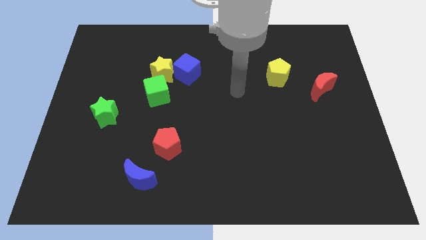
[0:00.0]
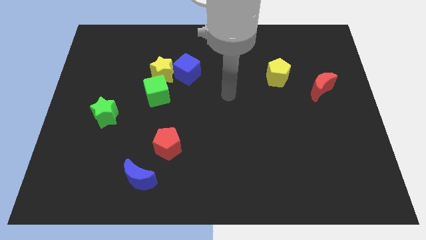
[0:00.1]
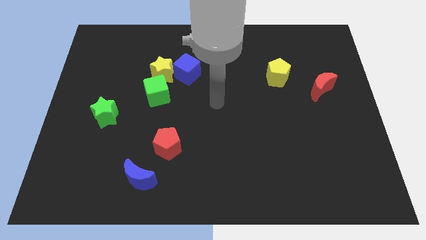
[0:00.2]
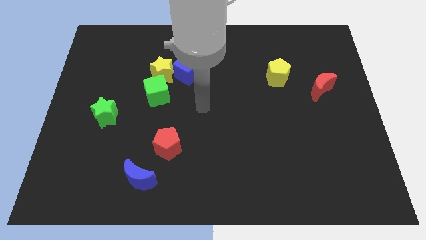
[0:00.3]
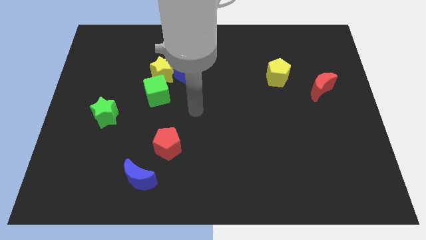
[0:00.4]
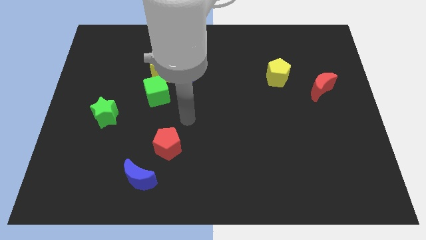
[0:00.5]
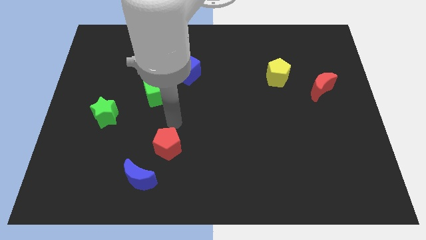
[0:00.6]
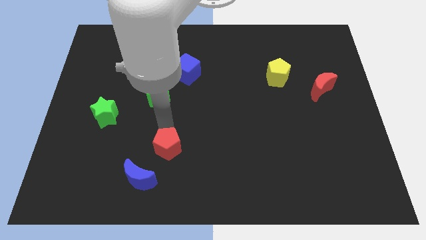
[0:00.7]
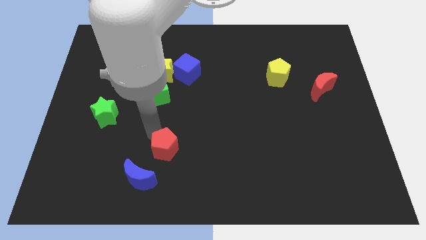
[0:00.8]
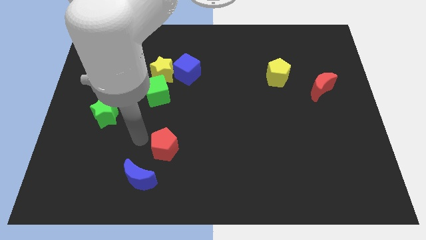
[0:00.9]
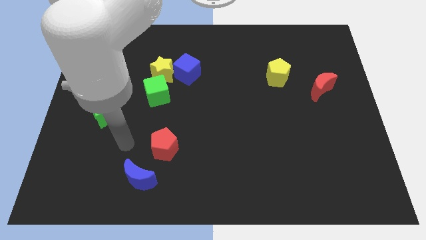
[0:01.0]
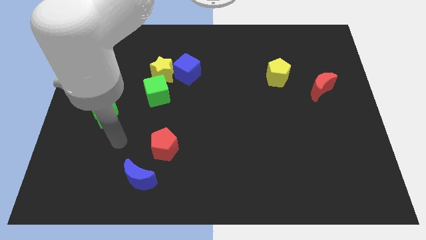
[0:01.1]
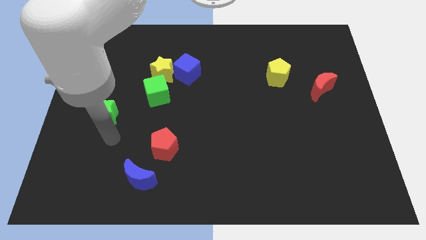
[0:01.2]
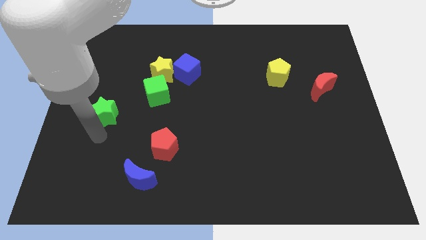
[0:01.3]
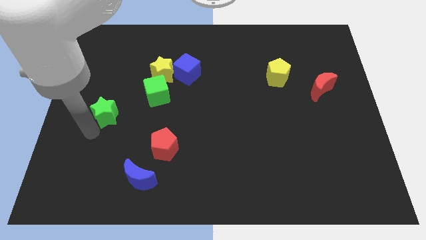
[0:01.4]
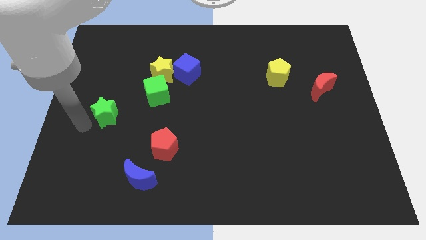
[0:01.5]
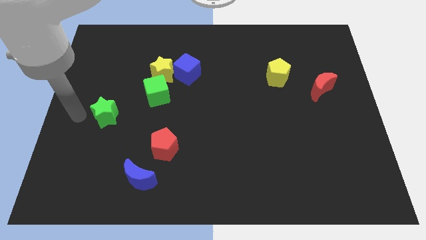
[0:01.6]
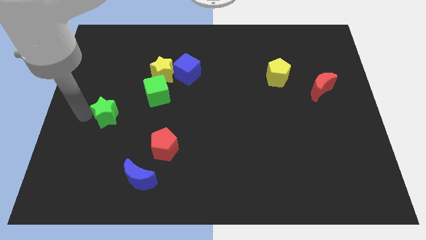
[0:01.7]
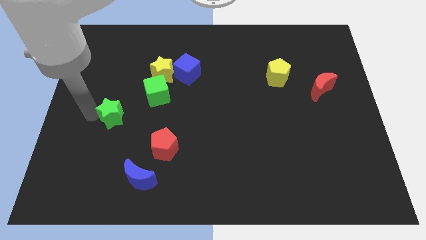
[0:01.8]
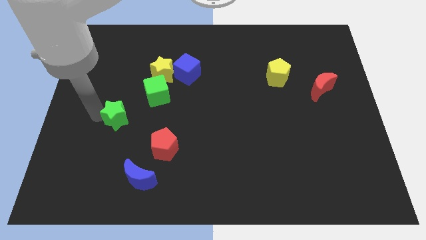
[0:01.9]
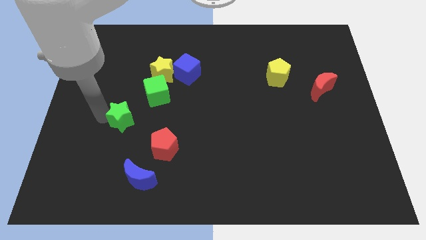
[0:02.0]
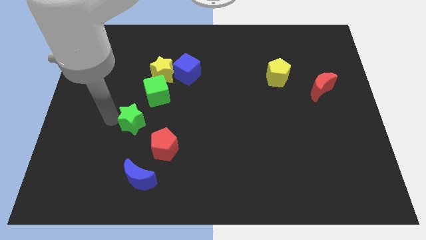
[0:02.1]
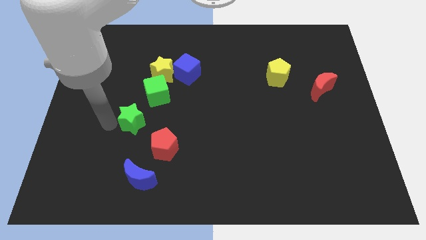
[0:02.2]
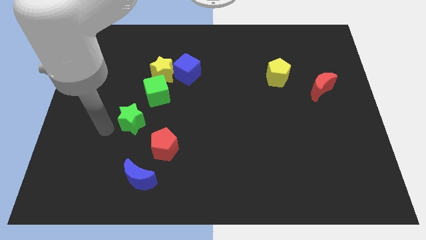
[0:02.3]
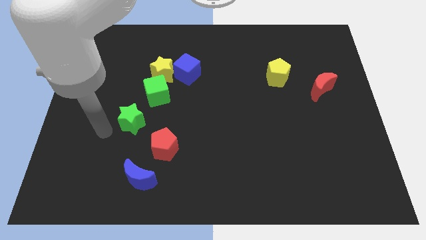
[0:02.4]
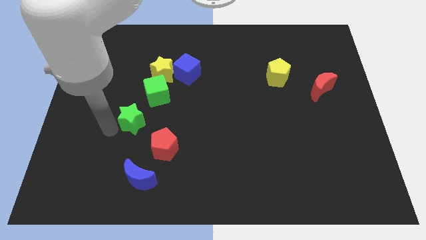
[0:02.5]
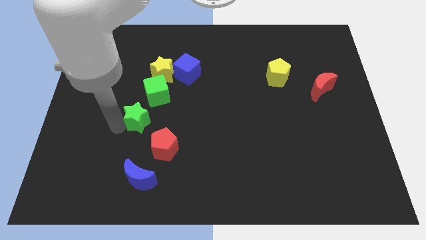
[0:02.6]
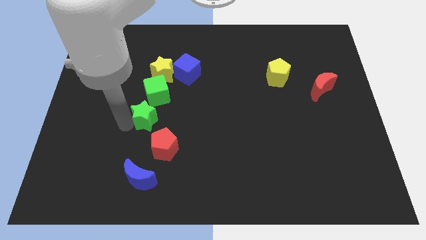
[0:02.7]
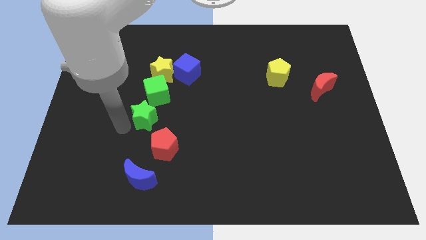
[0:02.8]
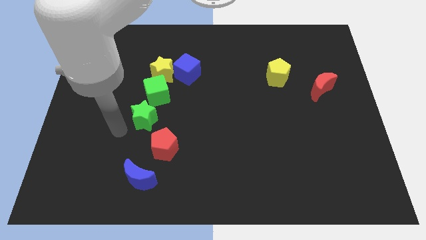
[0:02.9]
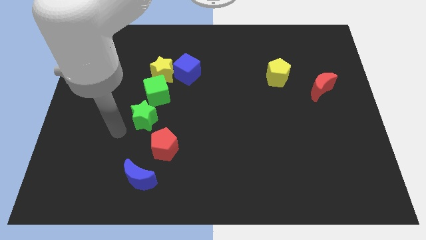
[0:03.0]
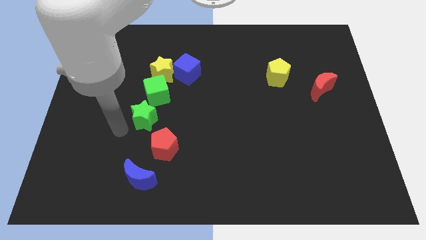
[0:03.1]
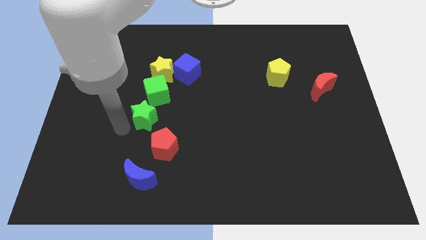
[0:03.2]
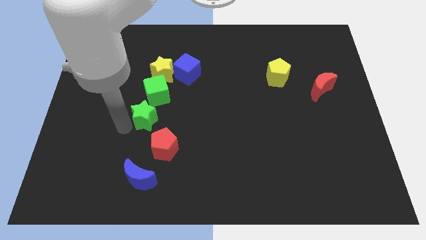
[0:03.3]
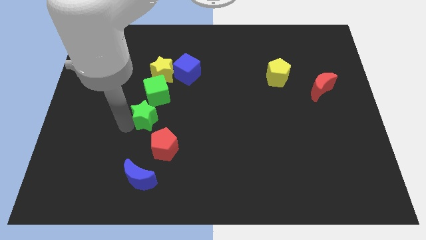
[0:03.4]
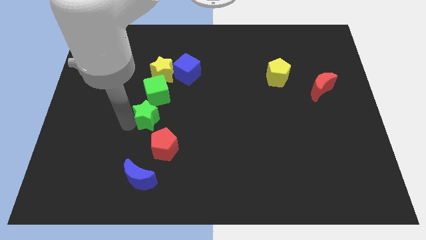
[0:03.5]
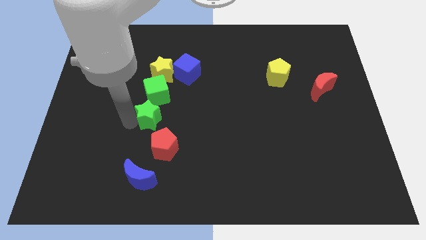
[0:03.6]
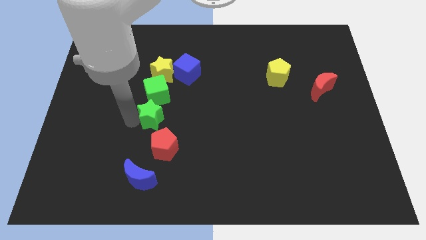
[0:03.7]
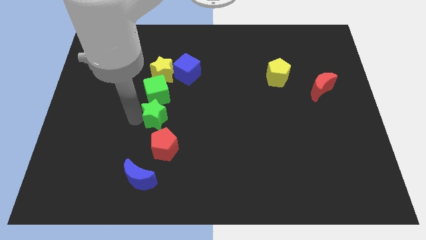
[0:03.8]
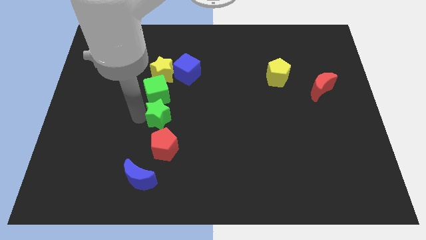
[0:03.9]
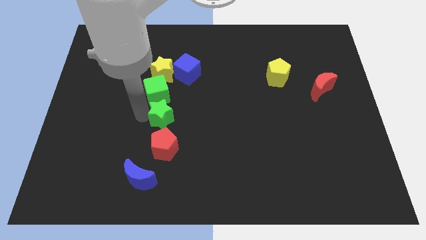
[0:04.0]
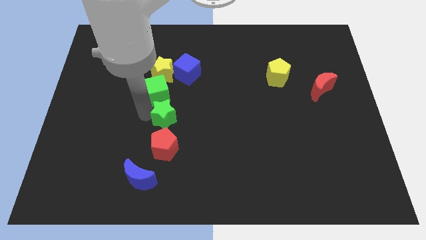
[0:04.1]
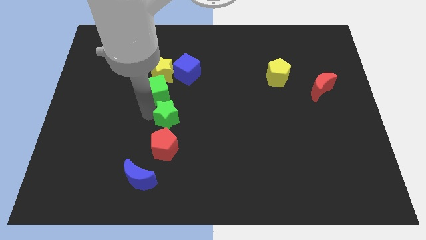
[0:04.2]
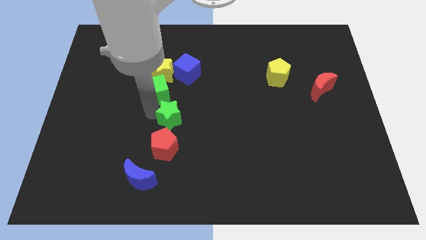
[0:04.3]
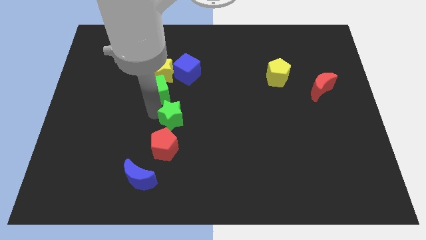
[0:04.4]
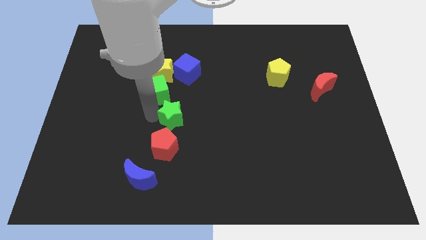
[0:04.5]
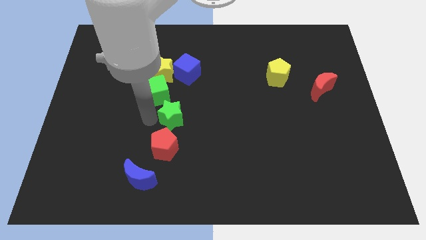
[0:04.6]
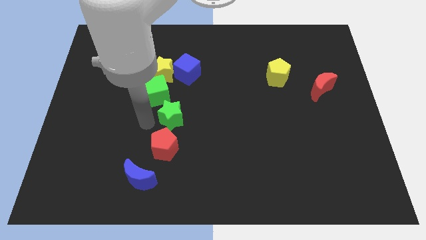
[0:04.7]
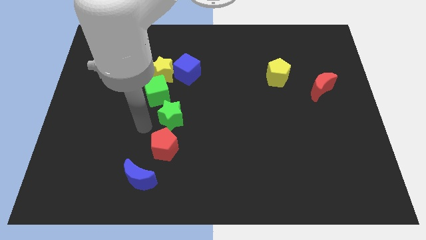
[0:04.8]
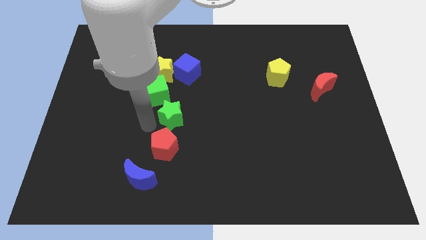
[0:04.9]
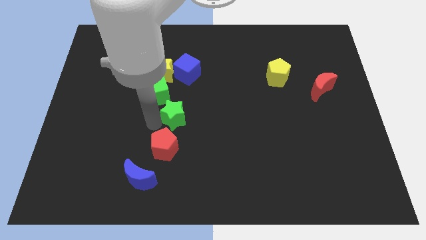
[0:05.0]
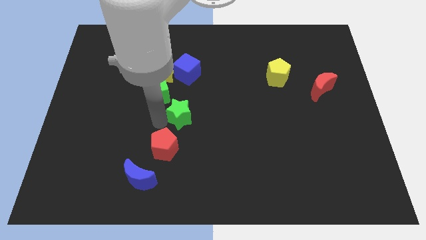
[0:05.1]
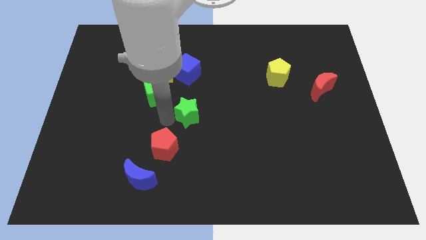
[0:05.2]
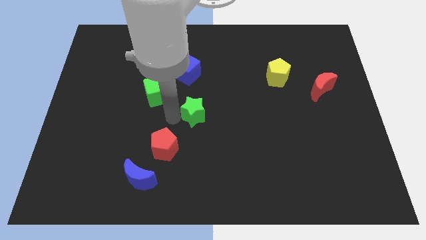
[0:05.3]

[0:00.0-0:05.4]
move the green star to the right

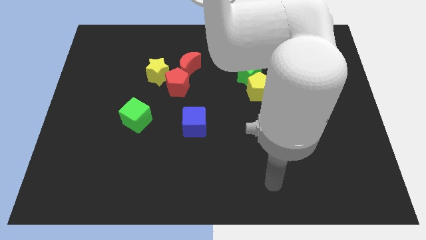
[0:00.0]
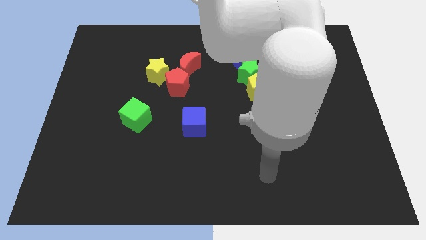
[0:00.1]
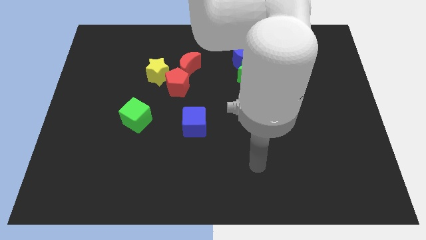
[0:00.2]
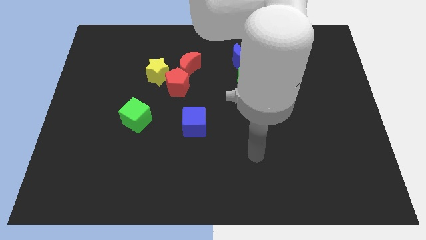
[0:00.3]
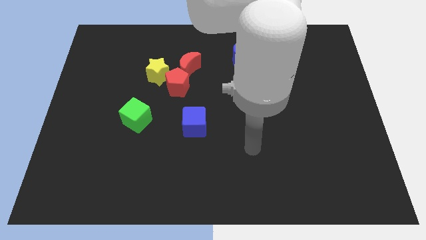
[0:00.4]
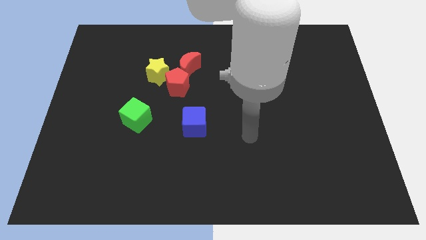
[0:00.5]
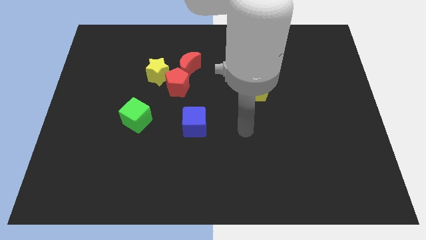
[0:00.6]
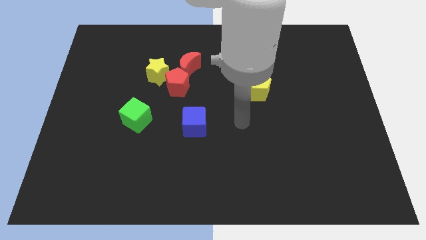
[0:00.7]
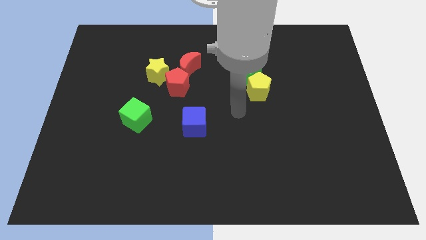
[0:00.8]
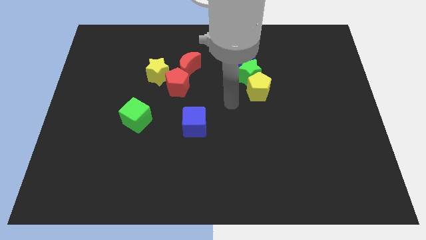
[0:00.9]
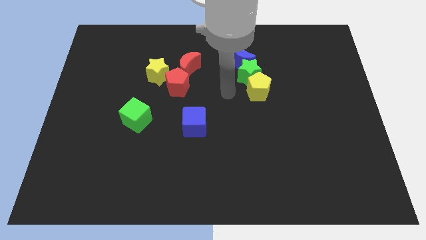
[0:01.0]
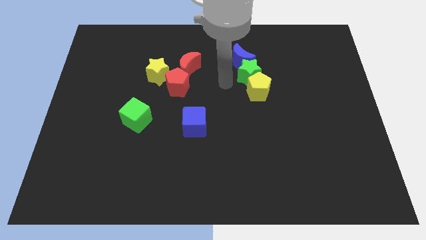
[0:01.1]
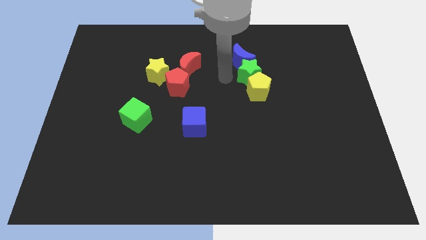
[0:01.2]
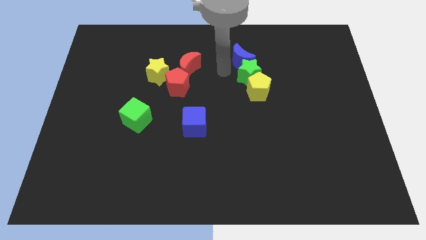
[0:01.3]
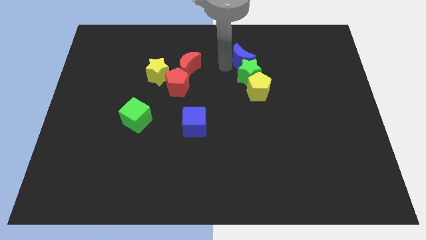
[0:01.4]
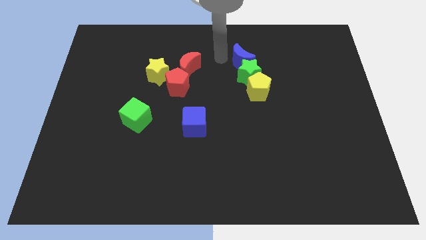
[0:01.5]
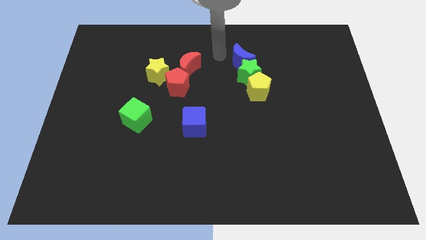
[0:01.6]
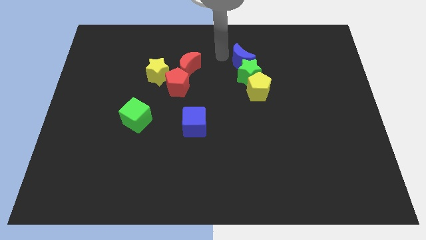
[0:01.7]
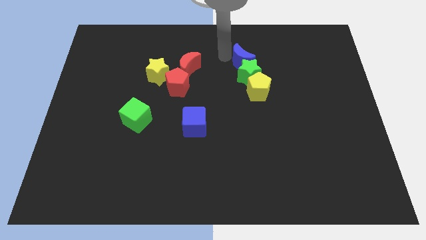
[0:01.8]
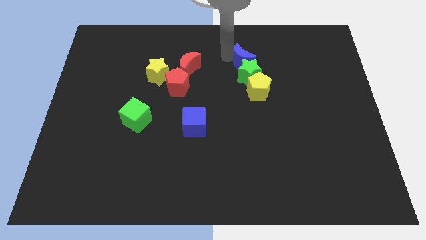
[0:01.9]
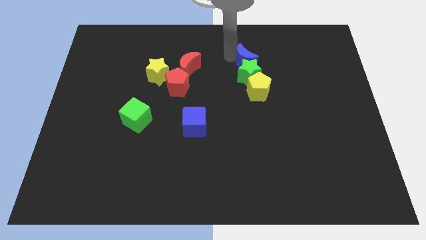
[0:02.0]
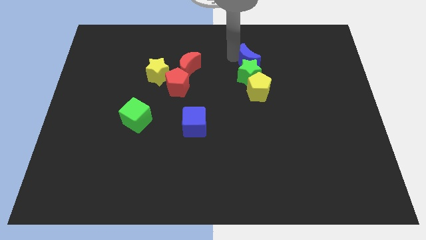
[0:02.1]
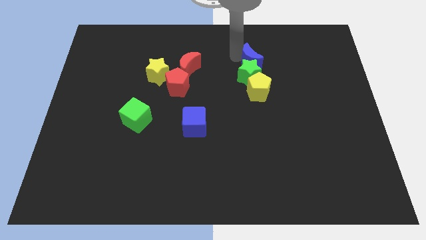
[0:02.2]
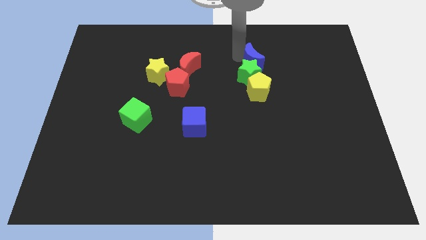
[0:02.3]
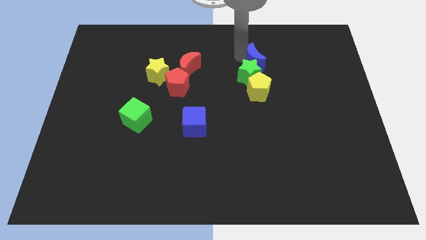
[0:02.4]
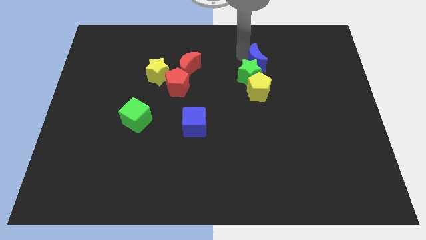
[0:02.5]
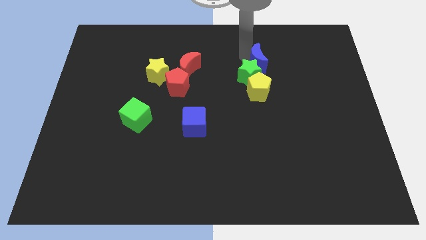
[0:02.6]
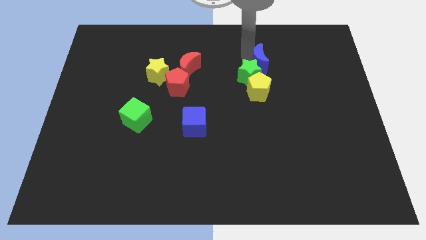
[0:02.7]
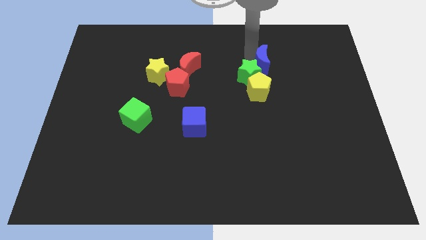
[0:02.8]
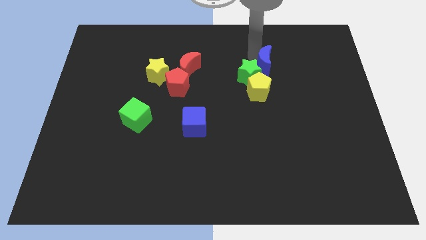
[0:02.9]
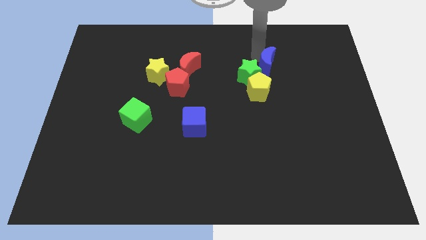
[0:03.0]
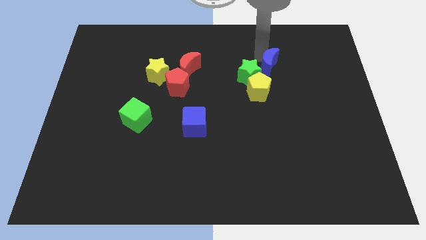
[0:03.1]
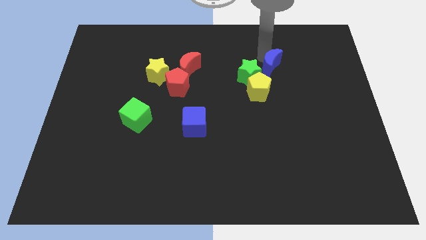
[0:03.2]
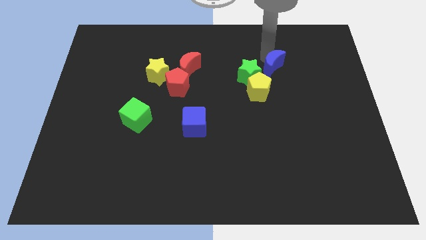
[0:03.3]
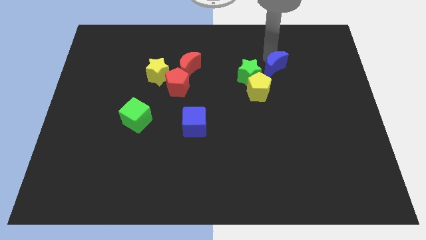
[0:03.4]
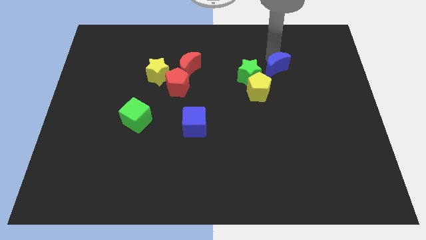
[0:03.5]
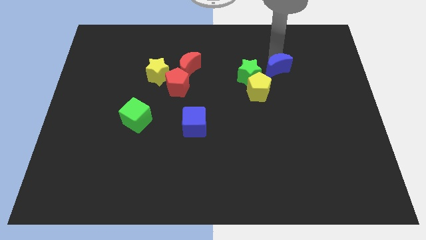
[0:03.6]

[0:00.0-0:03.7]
push the blue moon down and to the right slightly
